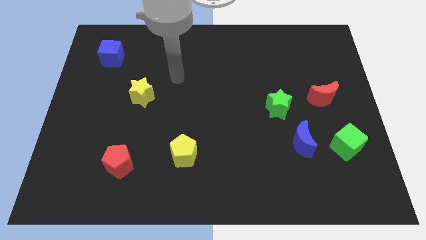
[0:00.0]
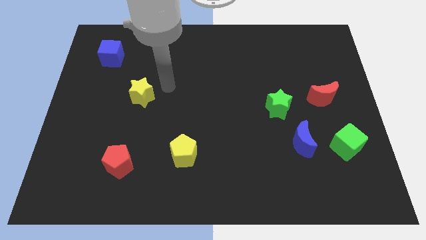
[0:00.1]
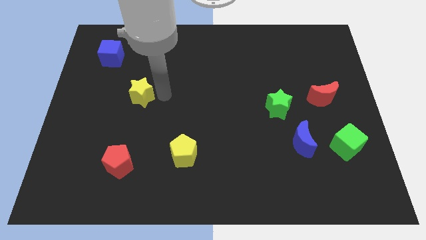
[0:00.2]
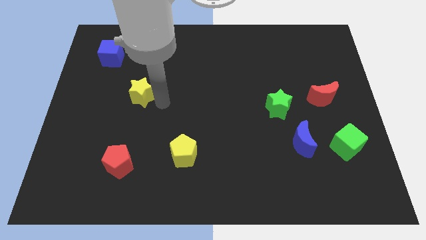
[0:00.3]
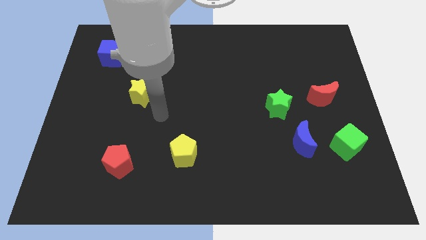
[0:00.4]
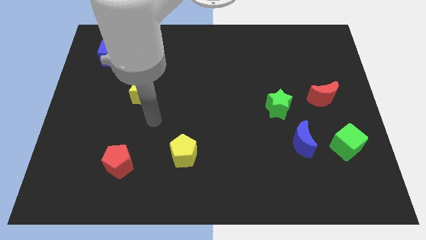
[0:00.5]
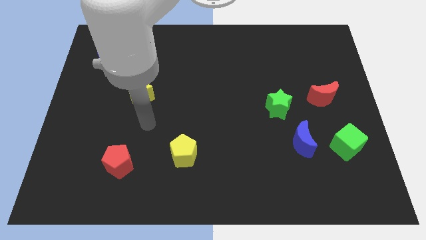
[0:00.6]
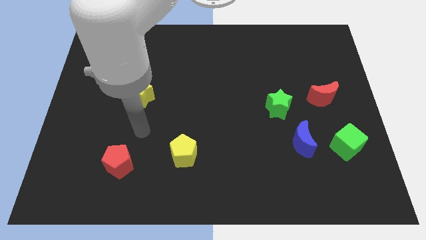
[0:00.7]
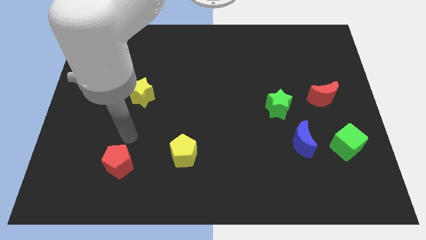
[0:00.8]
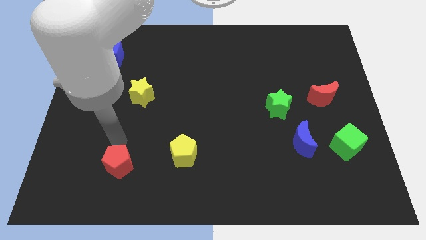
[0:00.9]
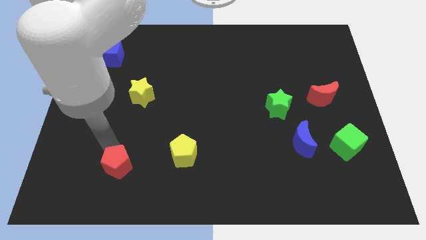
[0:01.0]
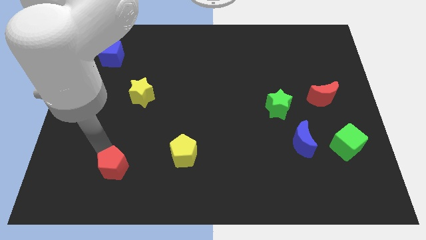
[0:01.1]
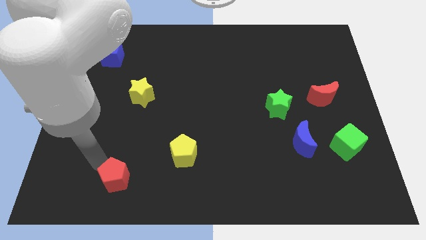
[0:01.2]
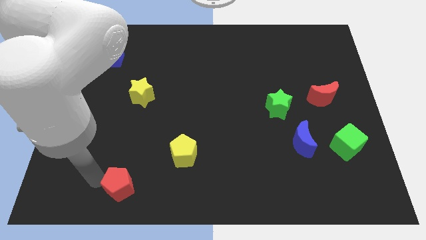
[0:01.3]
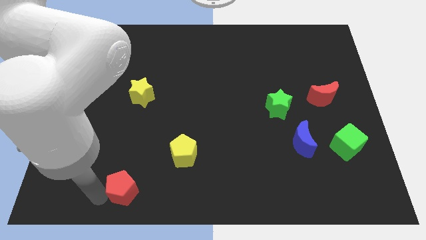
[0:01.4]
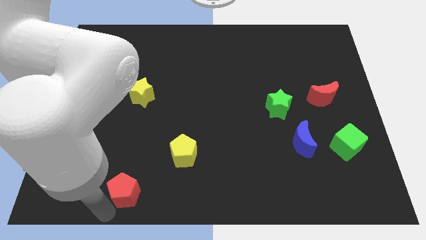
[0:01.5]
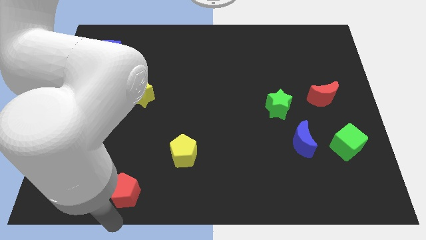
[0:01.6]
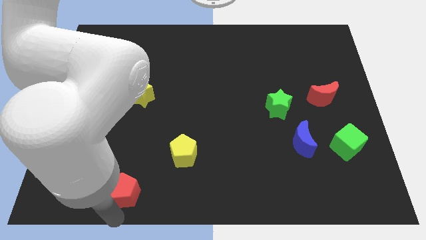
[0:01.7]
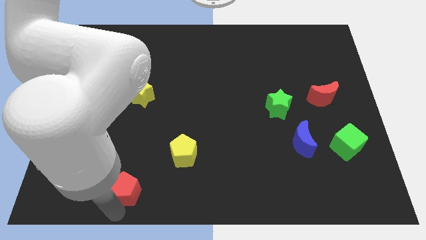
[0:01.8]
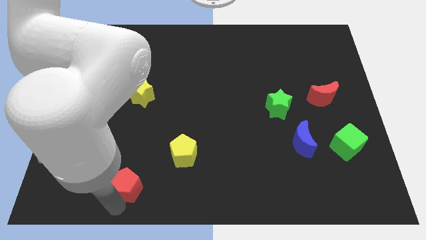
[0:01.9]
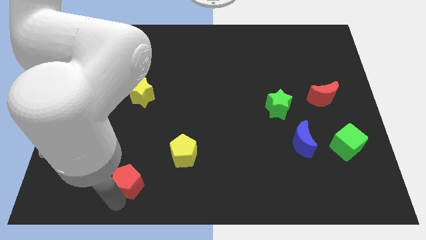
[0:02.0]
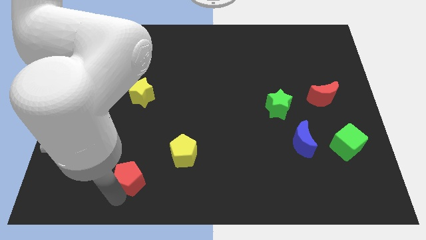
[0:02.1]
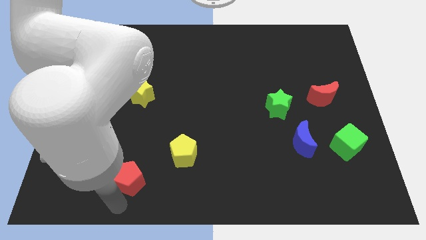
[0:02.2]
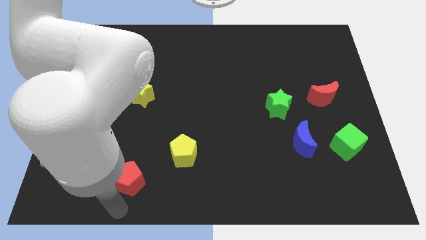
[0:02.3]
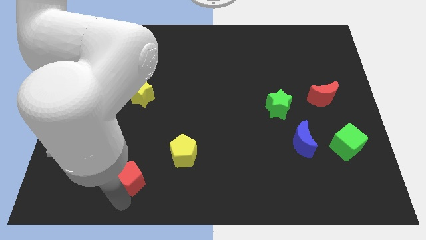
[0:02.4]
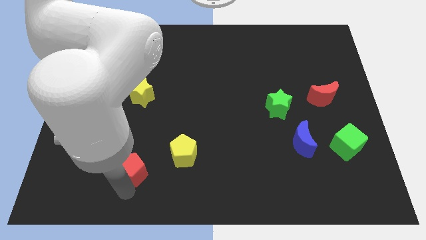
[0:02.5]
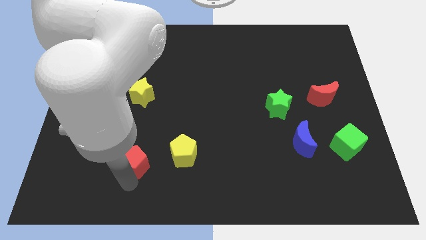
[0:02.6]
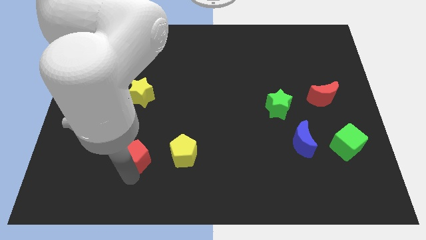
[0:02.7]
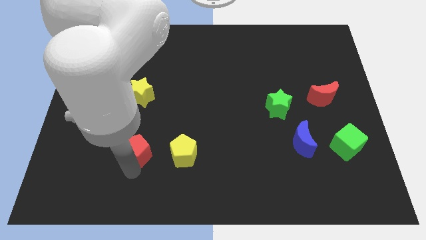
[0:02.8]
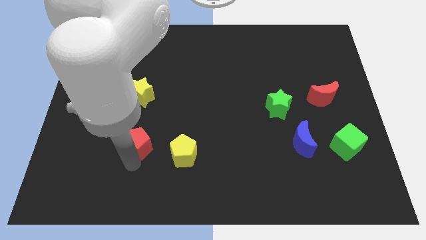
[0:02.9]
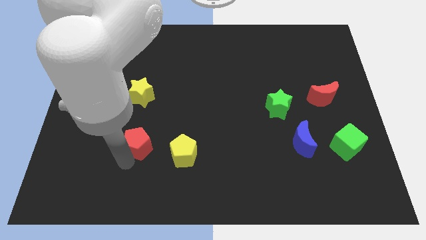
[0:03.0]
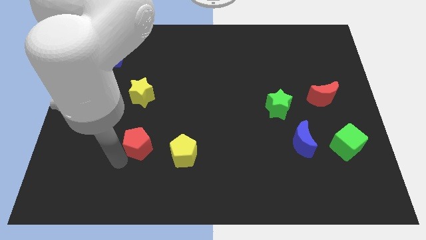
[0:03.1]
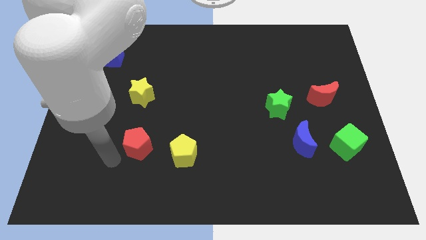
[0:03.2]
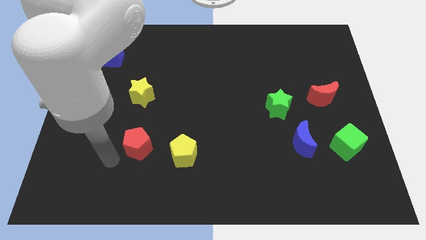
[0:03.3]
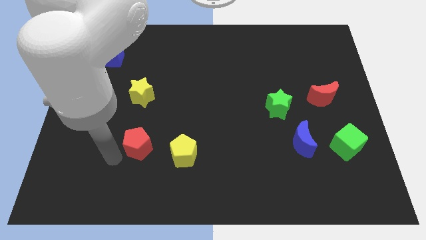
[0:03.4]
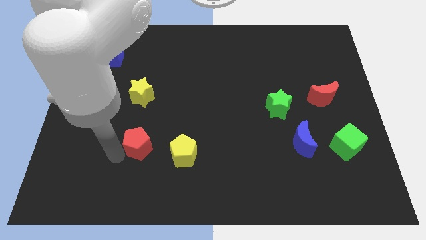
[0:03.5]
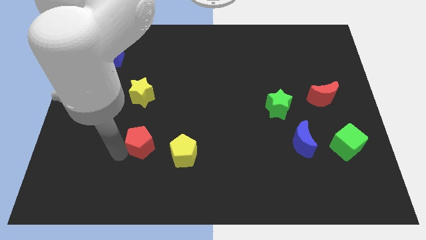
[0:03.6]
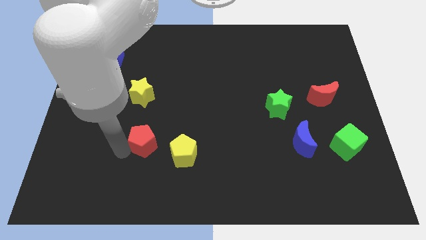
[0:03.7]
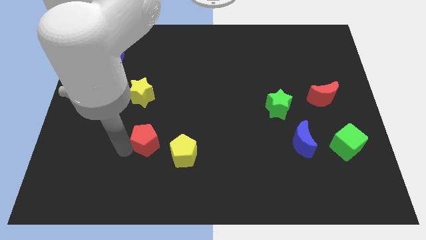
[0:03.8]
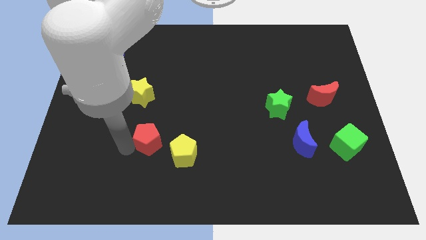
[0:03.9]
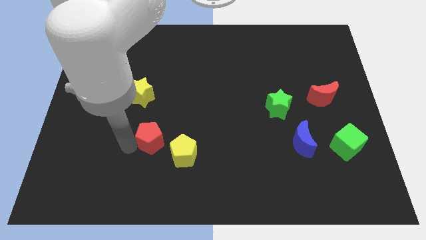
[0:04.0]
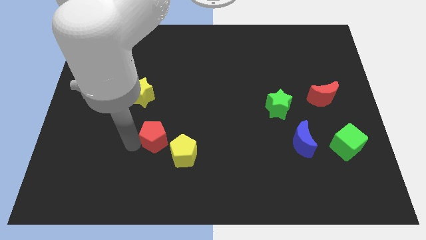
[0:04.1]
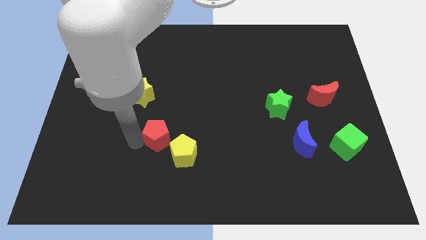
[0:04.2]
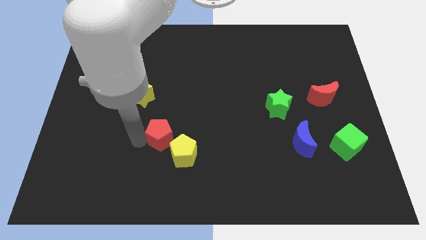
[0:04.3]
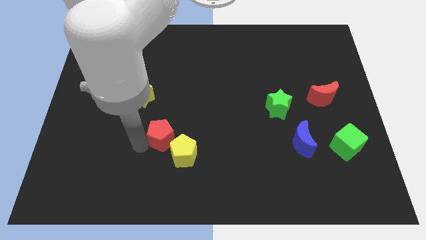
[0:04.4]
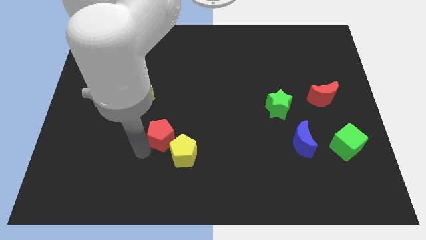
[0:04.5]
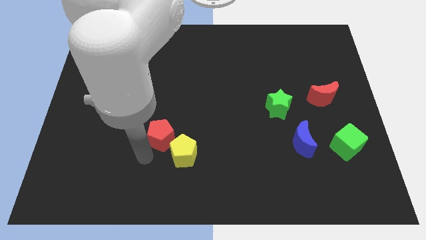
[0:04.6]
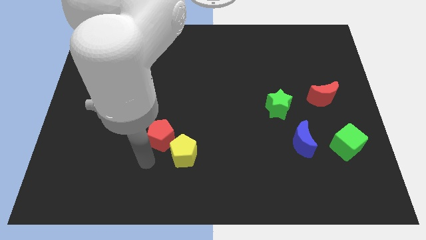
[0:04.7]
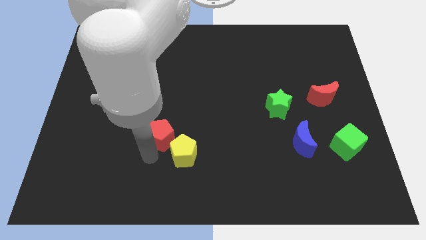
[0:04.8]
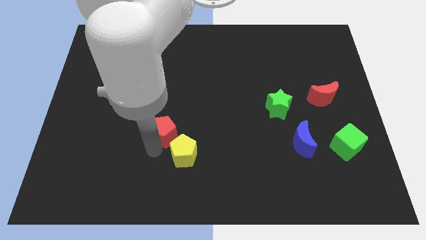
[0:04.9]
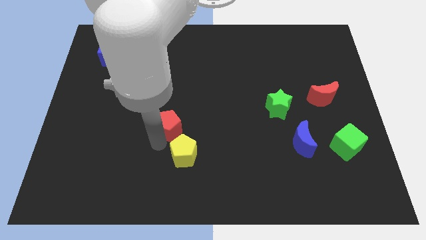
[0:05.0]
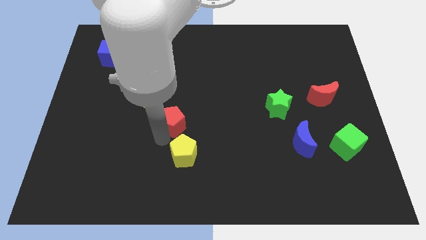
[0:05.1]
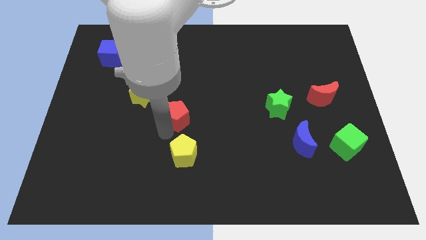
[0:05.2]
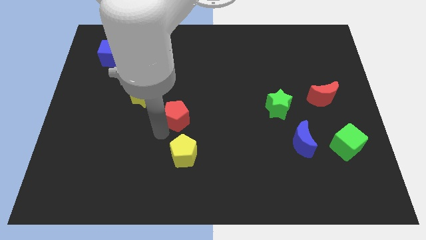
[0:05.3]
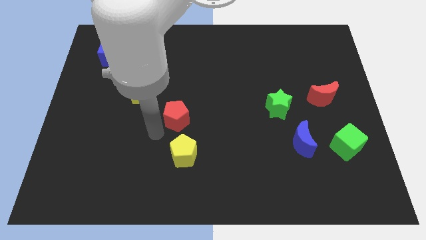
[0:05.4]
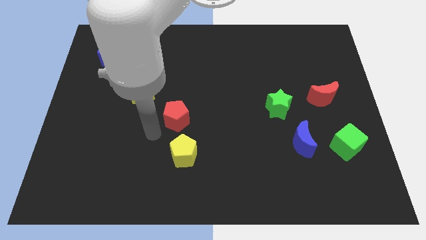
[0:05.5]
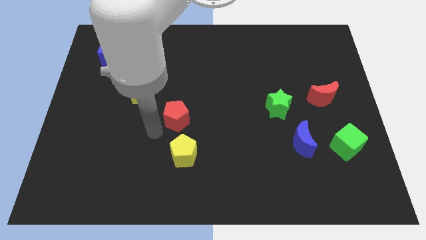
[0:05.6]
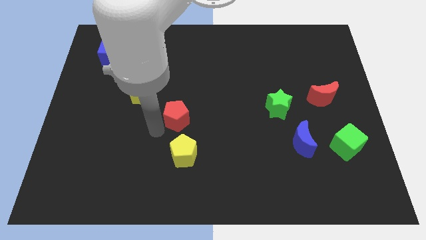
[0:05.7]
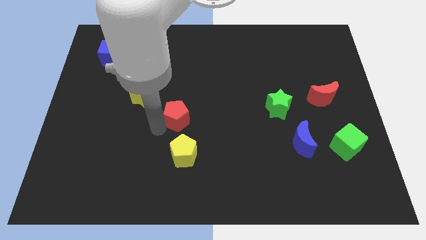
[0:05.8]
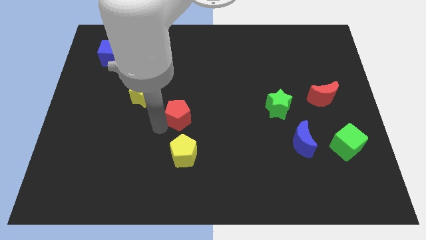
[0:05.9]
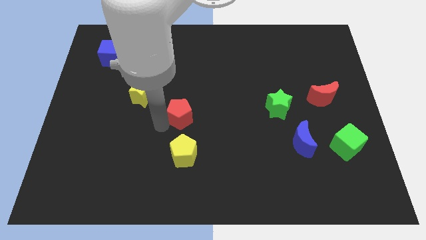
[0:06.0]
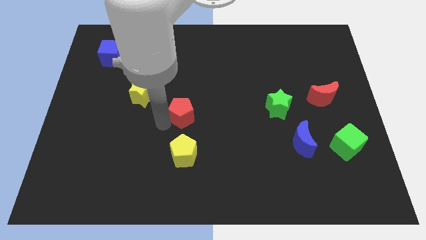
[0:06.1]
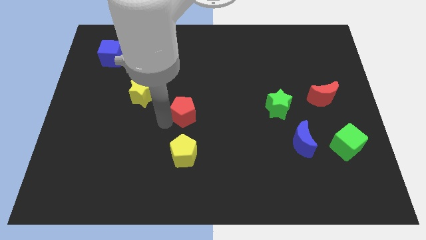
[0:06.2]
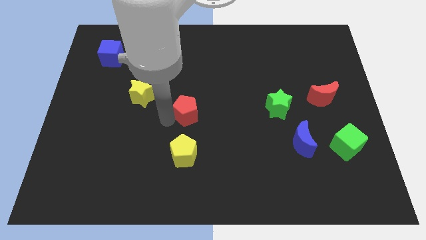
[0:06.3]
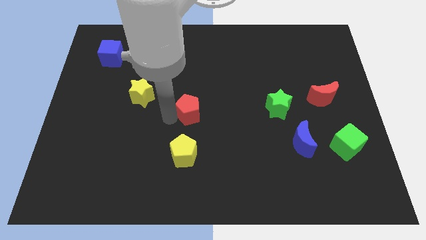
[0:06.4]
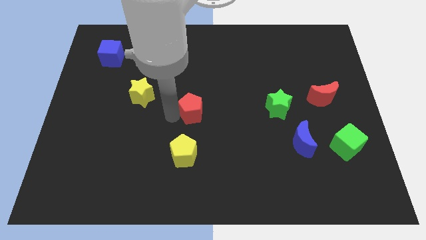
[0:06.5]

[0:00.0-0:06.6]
push the red pentagon up and to the right diagonally

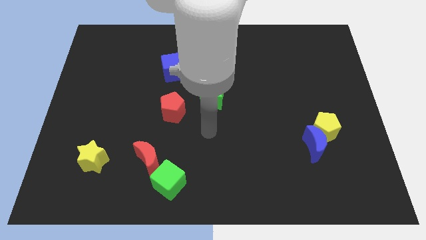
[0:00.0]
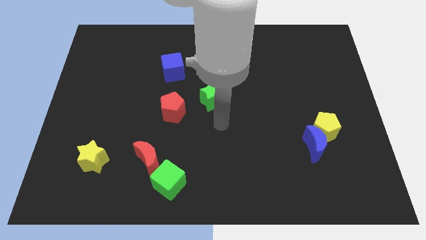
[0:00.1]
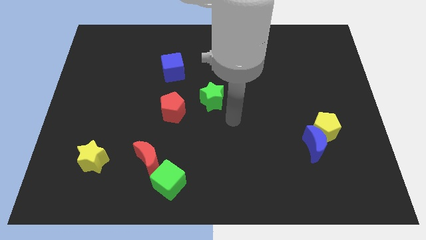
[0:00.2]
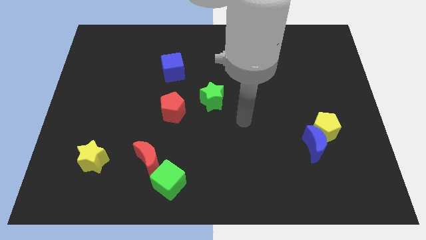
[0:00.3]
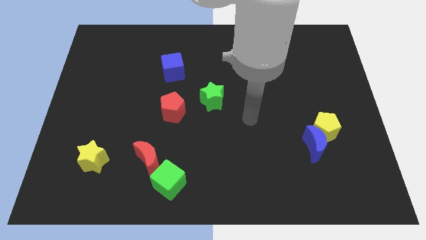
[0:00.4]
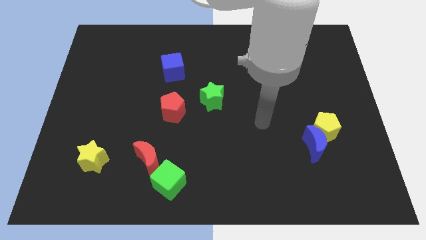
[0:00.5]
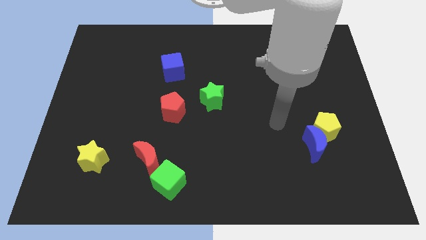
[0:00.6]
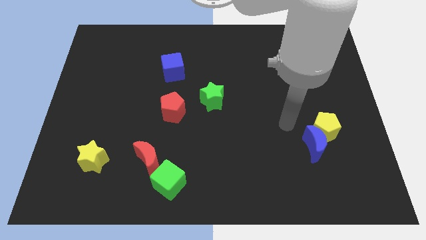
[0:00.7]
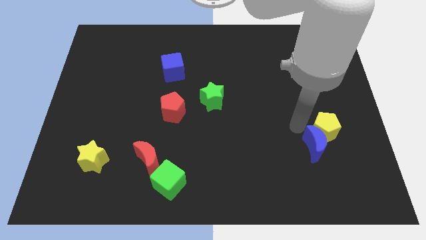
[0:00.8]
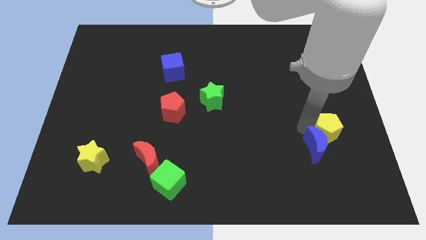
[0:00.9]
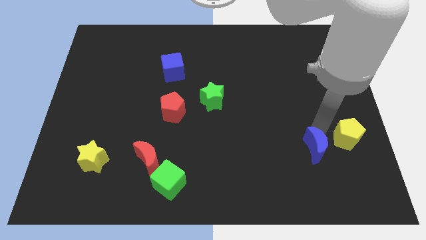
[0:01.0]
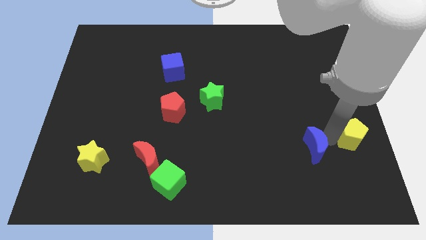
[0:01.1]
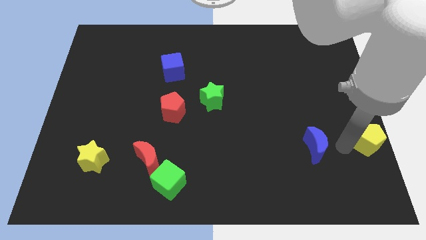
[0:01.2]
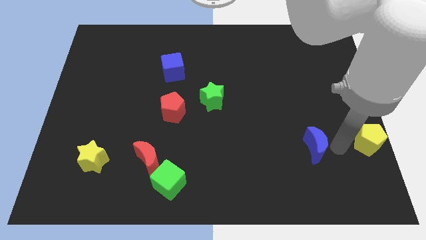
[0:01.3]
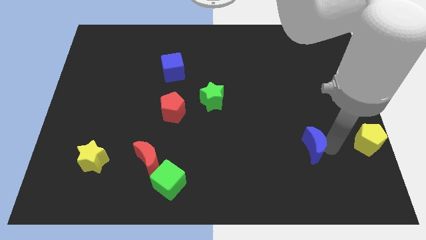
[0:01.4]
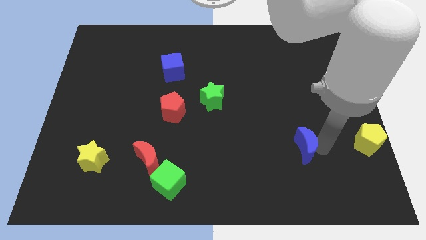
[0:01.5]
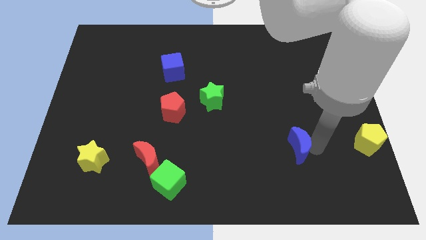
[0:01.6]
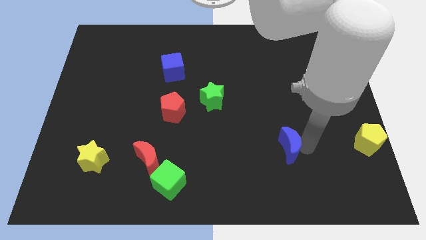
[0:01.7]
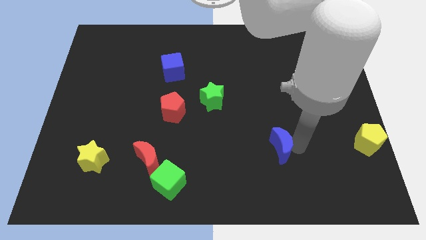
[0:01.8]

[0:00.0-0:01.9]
push the blue moon left somewhat
